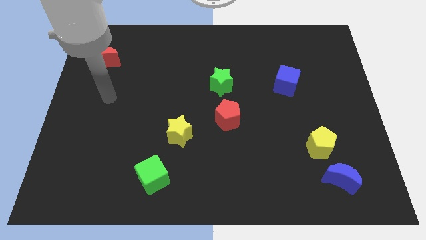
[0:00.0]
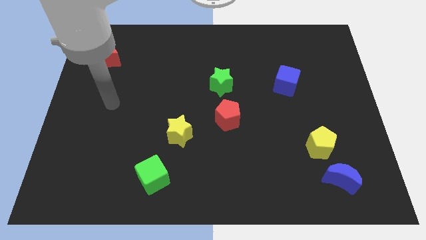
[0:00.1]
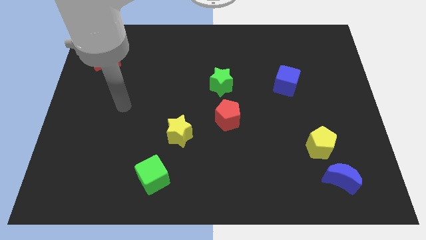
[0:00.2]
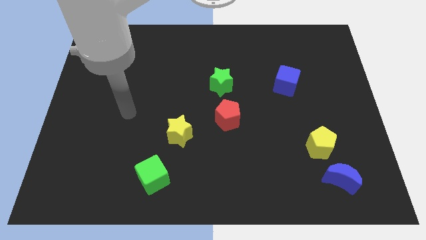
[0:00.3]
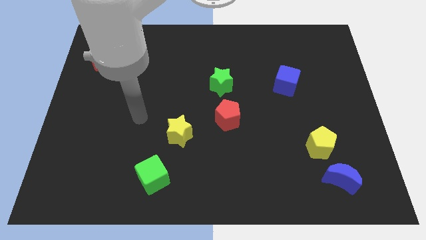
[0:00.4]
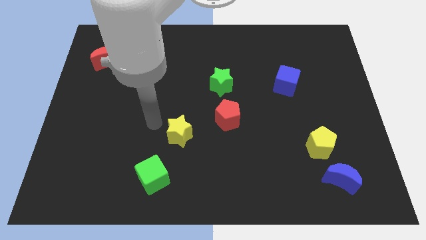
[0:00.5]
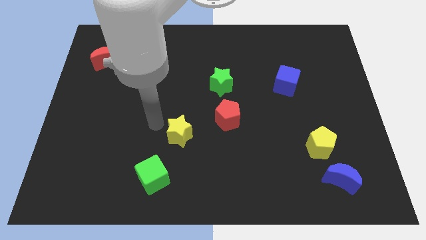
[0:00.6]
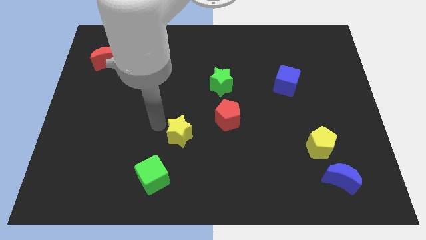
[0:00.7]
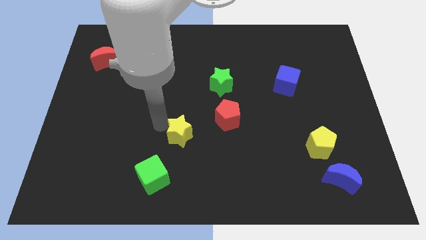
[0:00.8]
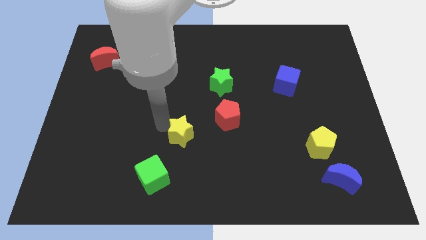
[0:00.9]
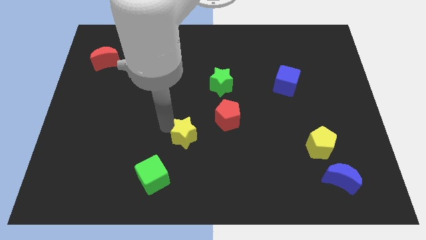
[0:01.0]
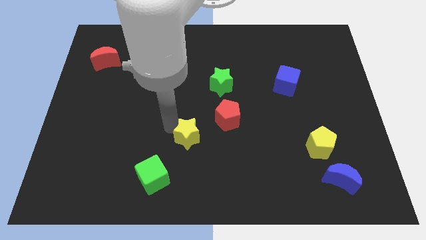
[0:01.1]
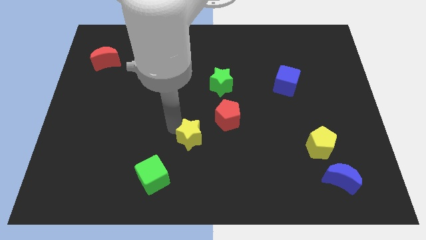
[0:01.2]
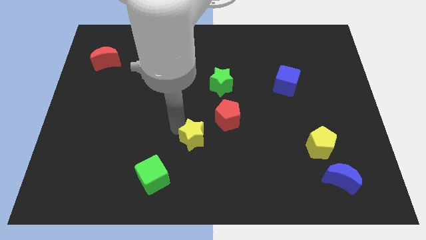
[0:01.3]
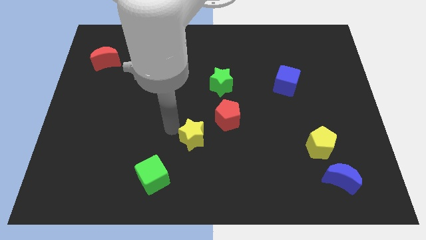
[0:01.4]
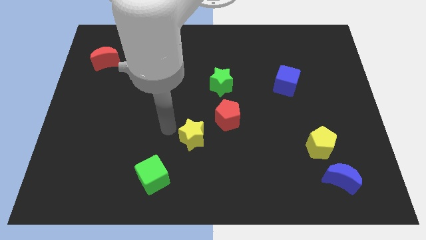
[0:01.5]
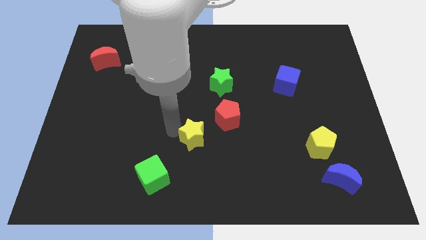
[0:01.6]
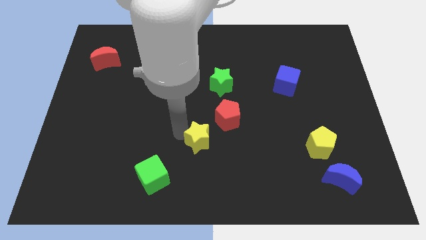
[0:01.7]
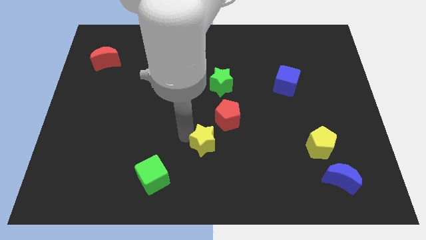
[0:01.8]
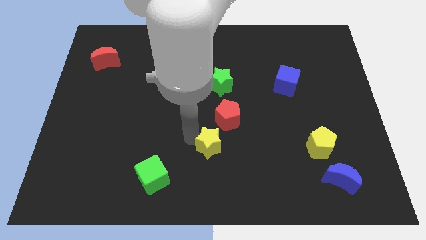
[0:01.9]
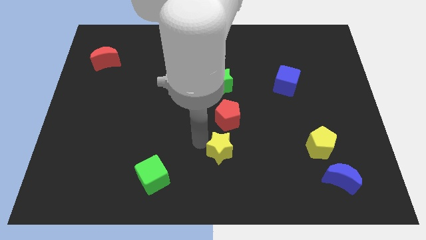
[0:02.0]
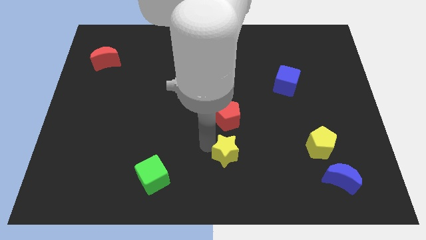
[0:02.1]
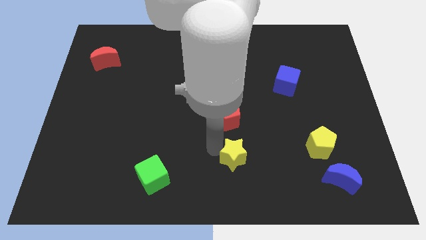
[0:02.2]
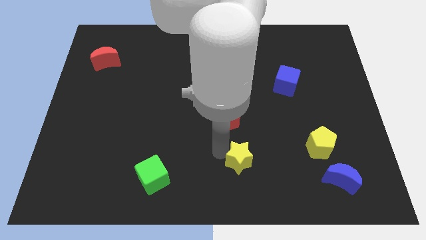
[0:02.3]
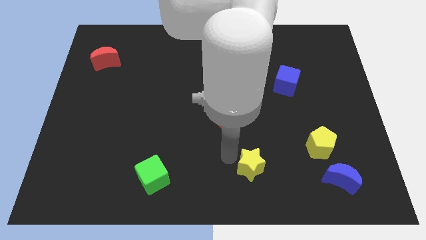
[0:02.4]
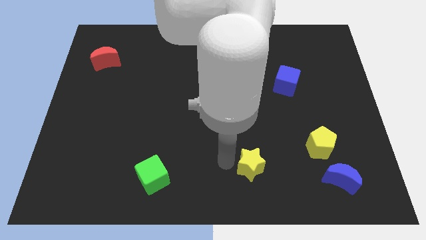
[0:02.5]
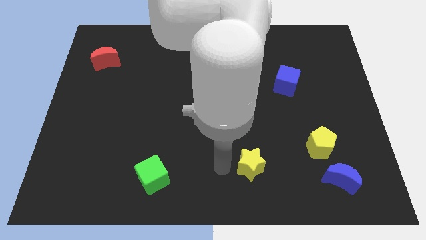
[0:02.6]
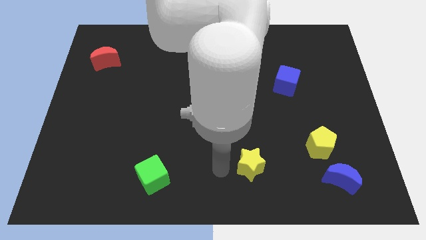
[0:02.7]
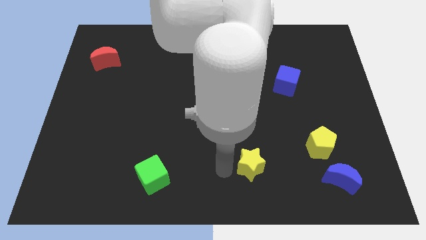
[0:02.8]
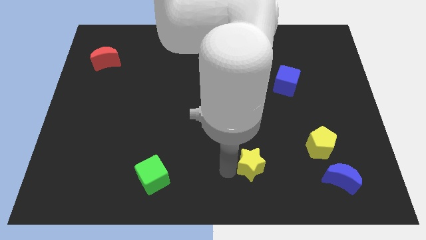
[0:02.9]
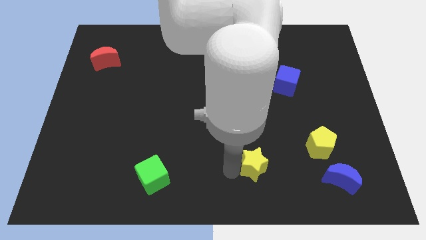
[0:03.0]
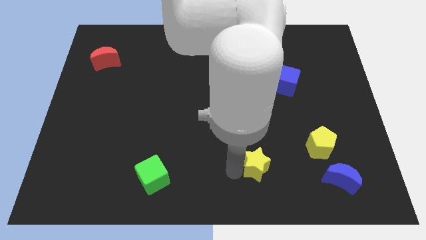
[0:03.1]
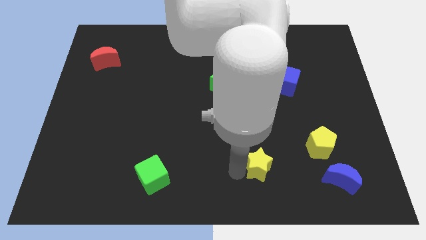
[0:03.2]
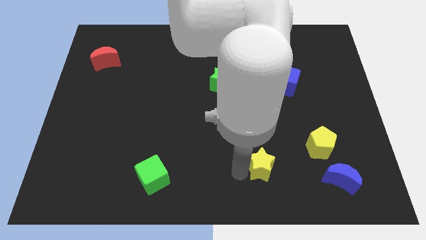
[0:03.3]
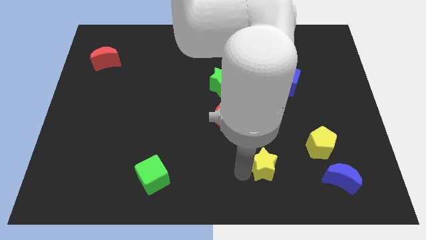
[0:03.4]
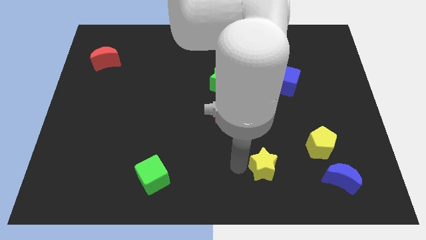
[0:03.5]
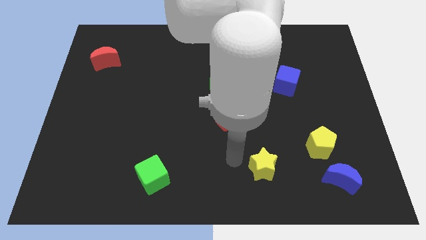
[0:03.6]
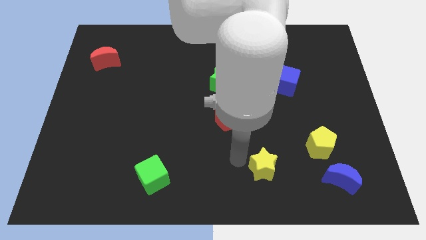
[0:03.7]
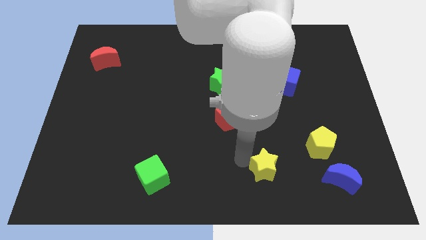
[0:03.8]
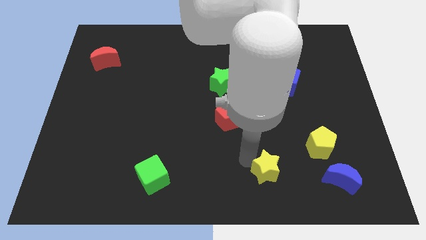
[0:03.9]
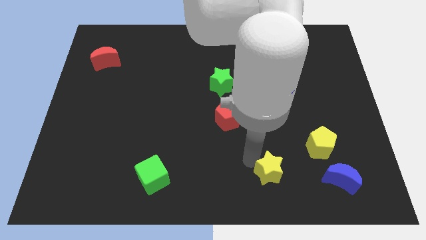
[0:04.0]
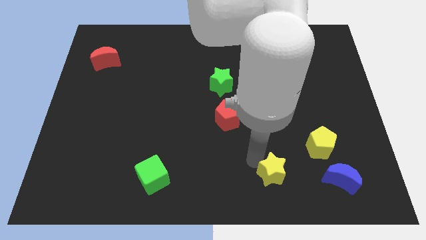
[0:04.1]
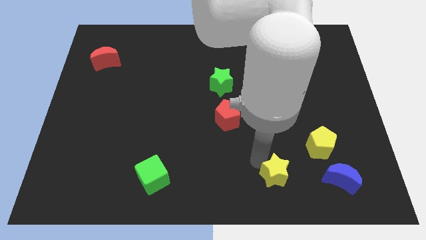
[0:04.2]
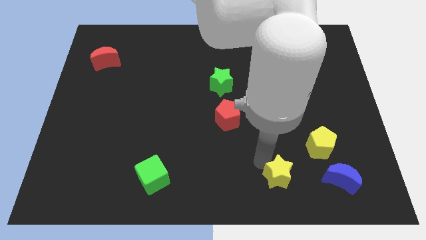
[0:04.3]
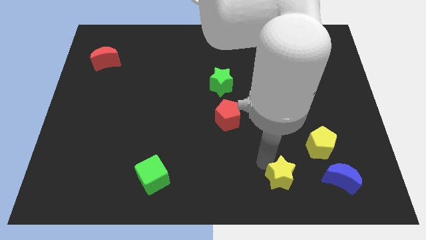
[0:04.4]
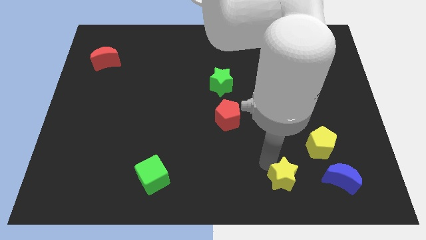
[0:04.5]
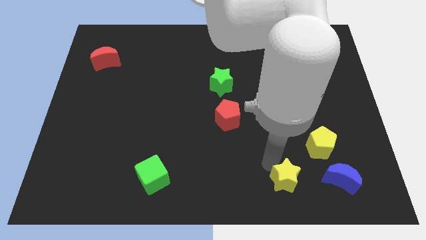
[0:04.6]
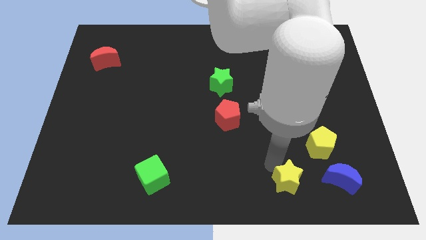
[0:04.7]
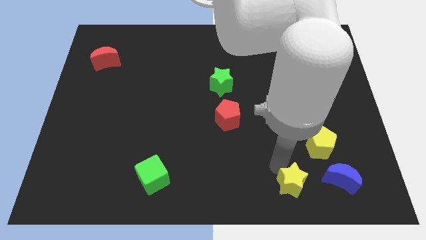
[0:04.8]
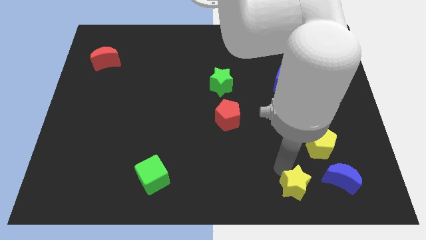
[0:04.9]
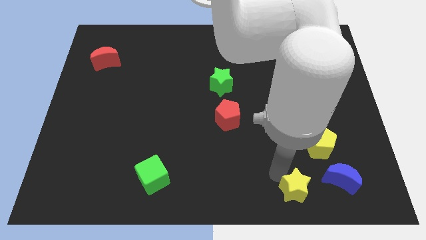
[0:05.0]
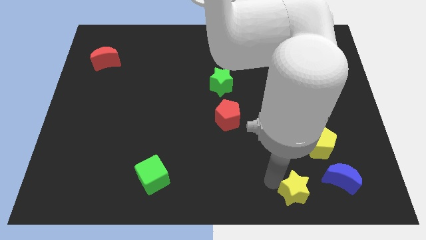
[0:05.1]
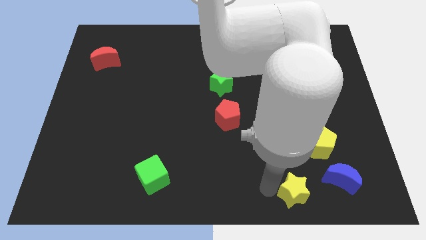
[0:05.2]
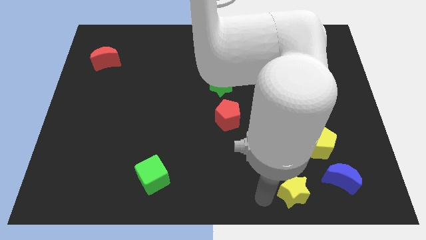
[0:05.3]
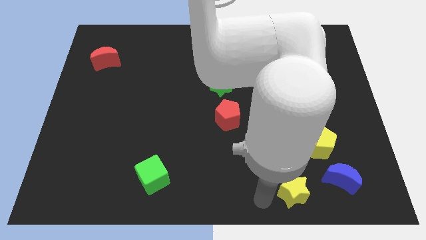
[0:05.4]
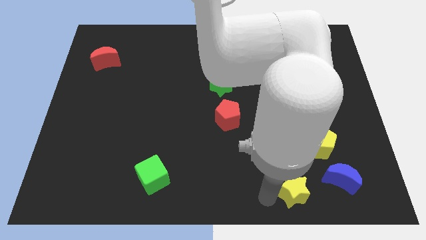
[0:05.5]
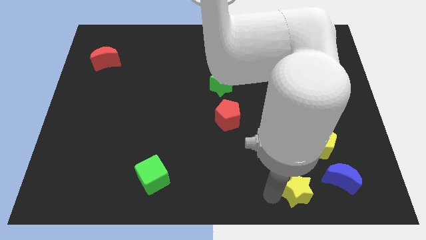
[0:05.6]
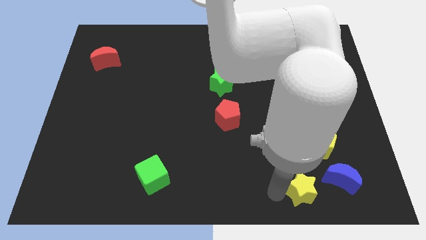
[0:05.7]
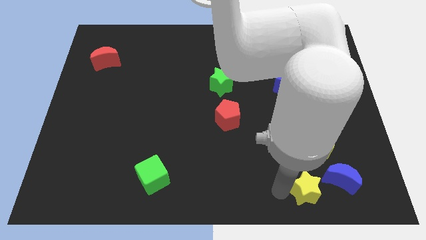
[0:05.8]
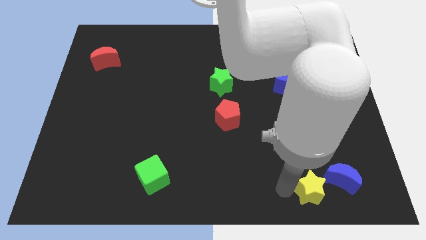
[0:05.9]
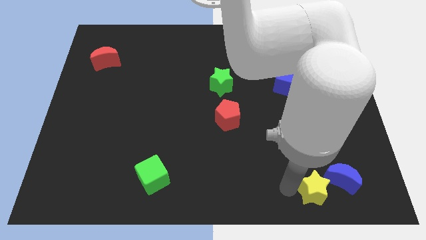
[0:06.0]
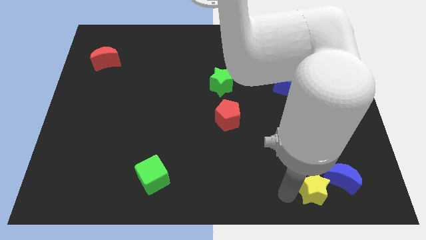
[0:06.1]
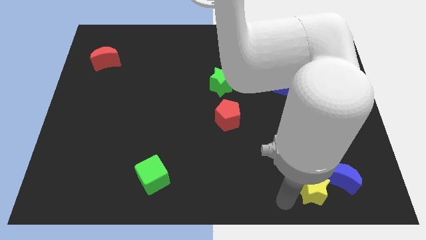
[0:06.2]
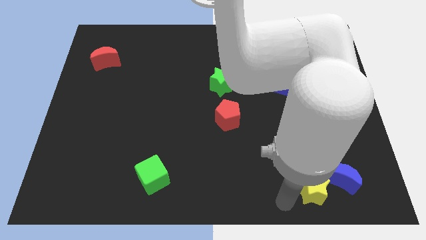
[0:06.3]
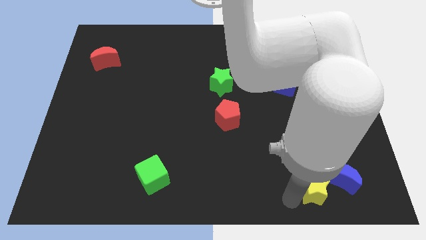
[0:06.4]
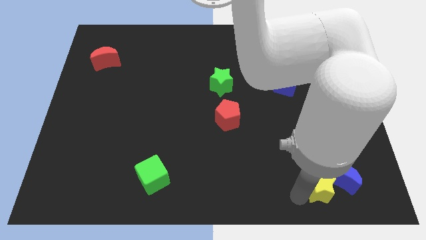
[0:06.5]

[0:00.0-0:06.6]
move the yellow star to the blue moon
